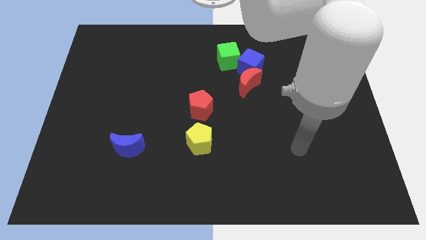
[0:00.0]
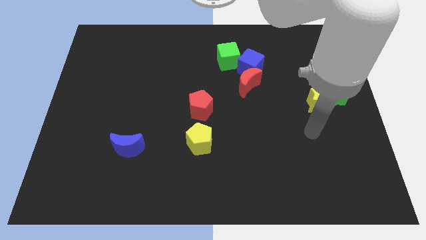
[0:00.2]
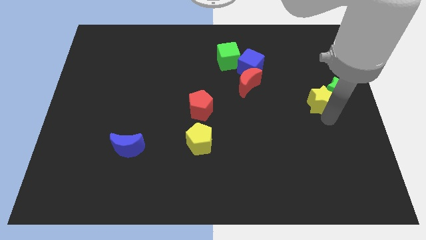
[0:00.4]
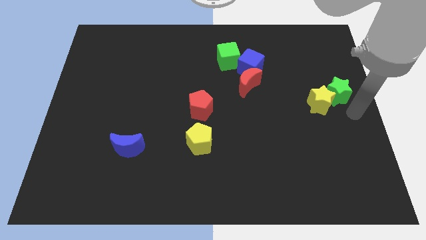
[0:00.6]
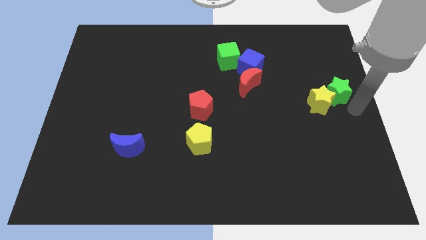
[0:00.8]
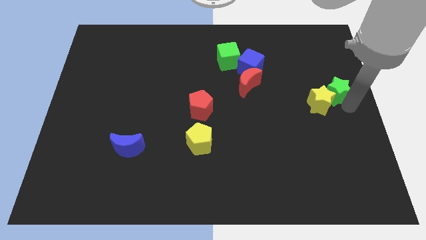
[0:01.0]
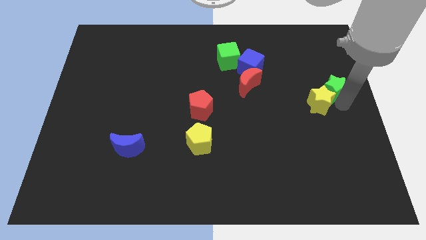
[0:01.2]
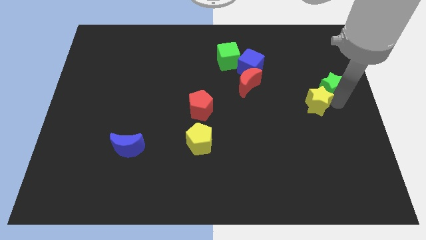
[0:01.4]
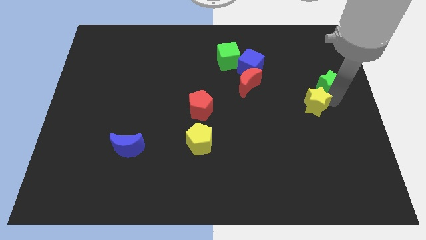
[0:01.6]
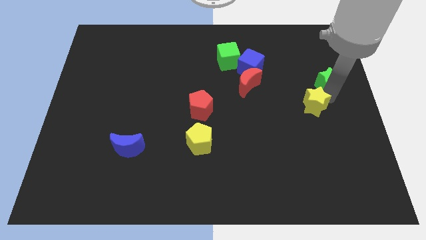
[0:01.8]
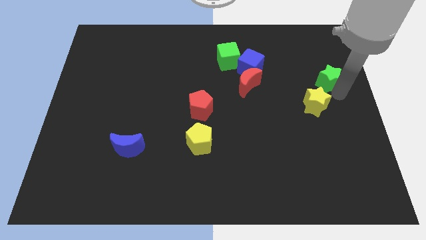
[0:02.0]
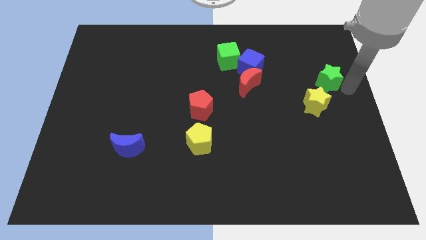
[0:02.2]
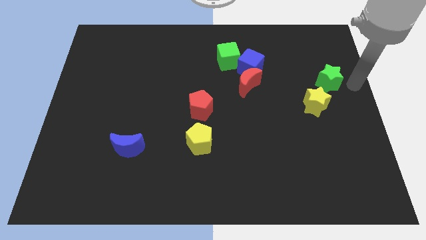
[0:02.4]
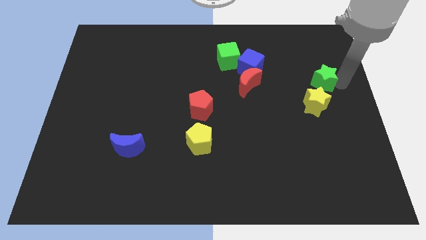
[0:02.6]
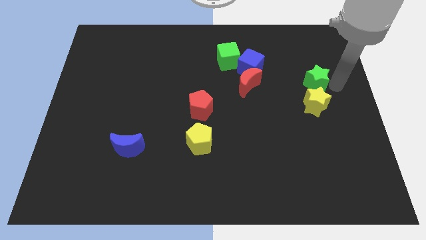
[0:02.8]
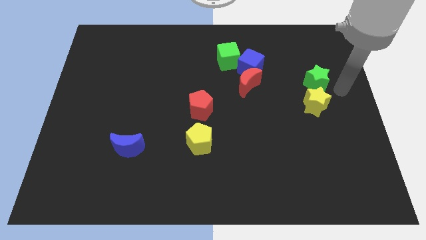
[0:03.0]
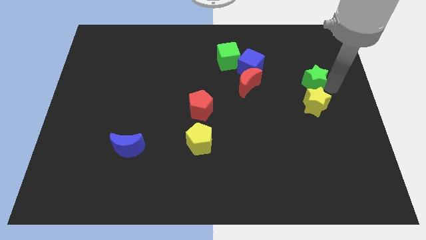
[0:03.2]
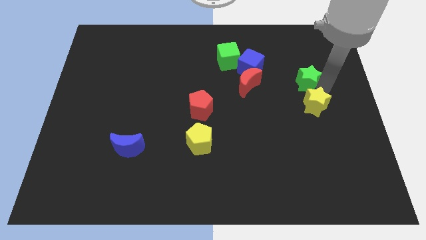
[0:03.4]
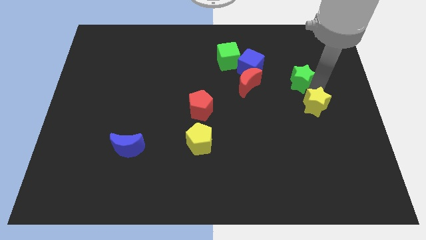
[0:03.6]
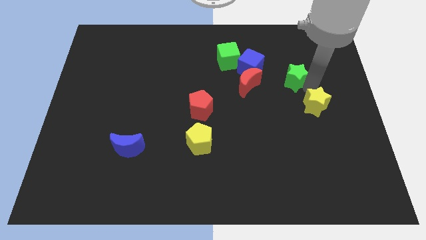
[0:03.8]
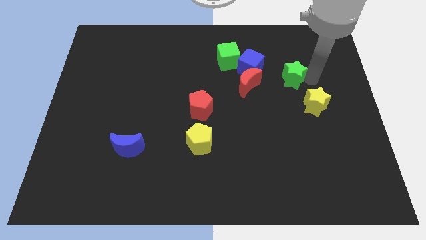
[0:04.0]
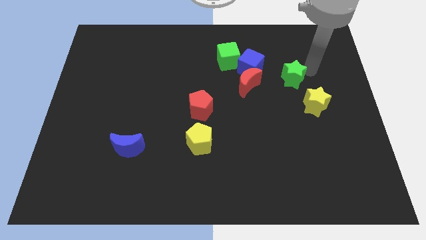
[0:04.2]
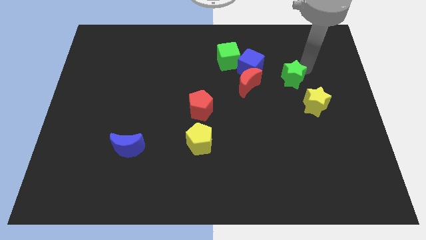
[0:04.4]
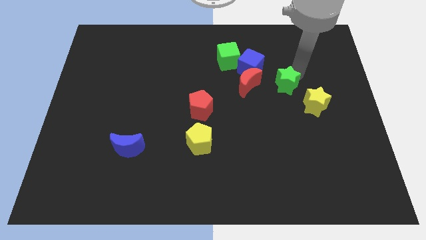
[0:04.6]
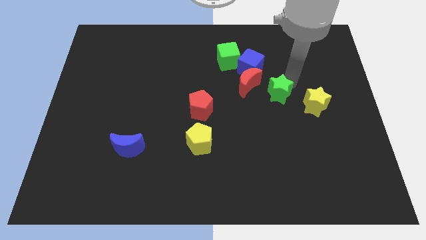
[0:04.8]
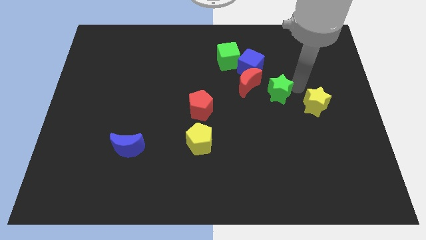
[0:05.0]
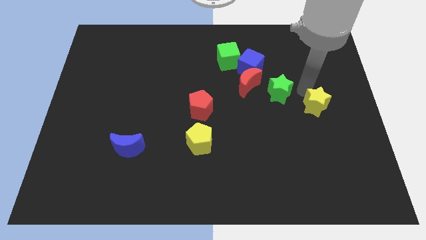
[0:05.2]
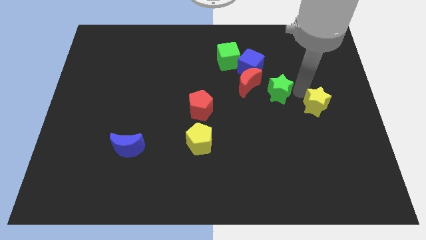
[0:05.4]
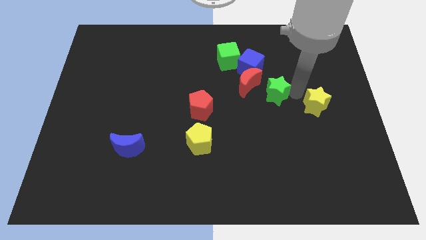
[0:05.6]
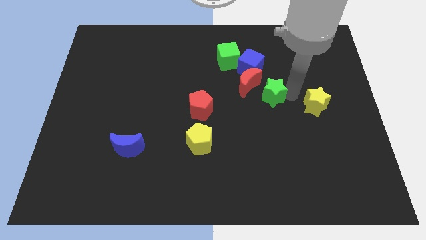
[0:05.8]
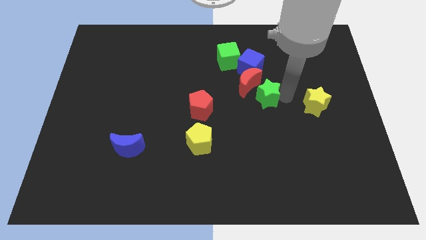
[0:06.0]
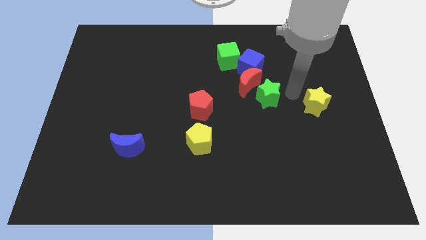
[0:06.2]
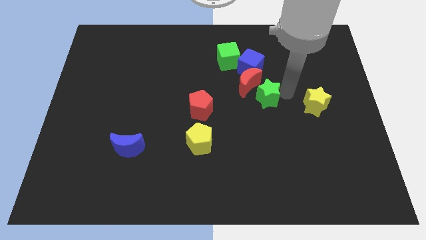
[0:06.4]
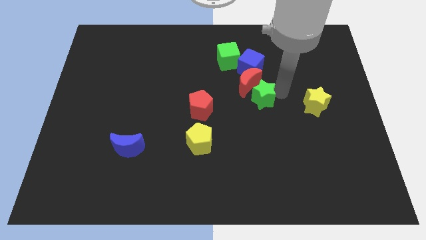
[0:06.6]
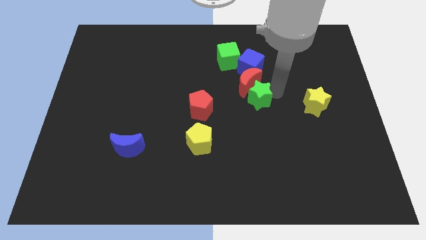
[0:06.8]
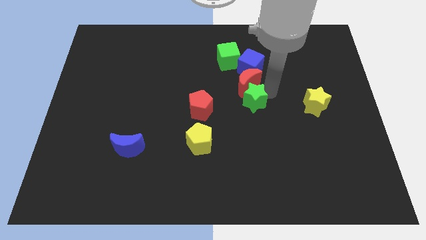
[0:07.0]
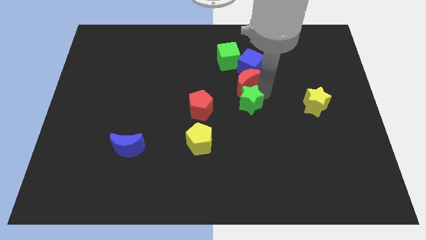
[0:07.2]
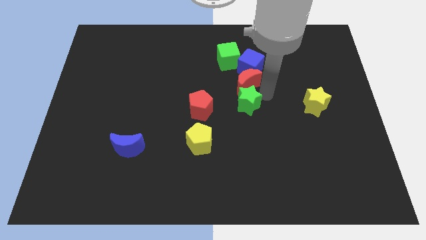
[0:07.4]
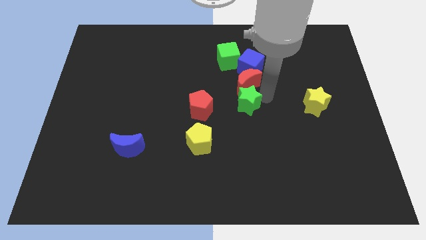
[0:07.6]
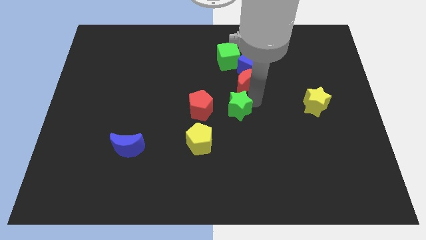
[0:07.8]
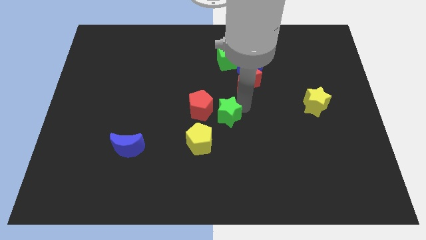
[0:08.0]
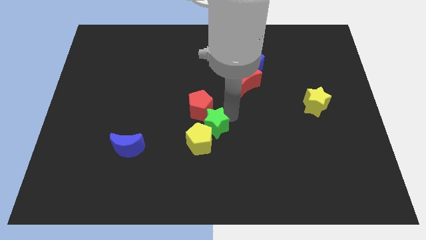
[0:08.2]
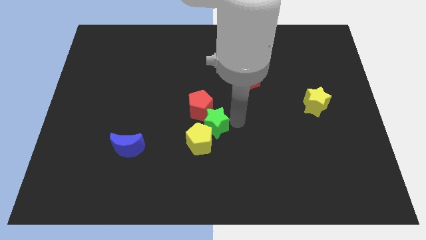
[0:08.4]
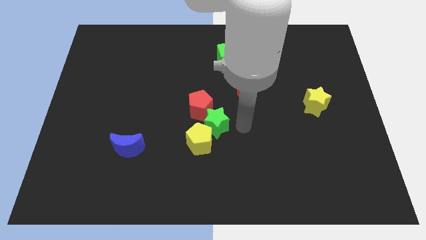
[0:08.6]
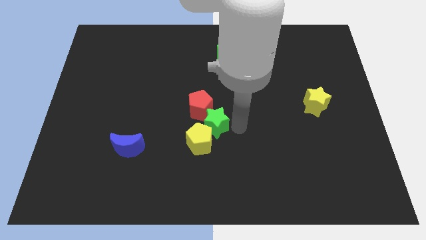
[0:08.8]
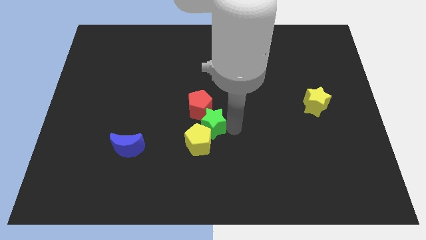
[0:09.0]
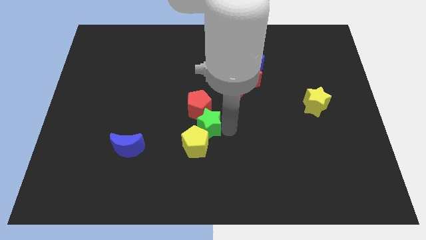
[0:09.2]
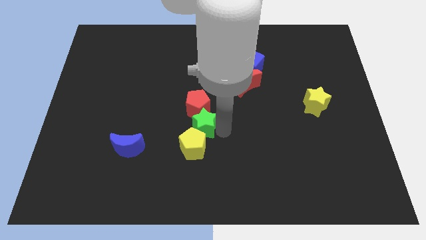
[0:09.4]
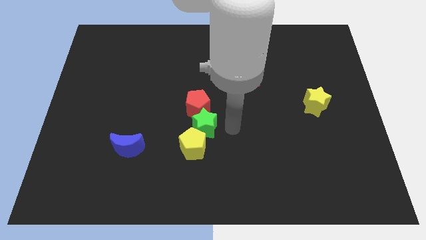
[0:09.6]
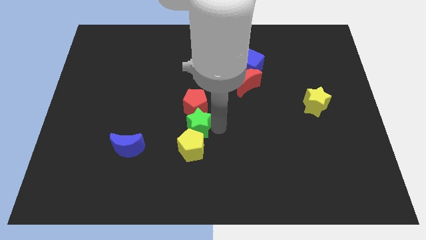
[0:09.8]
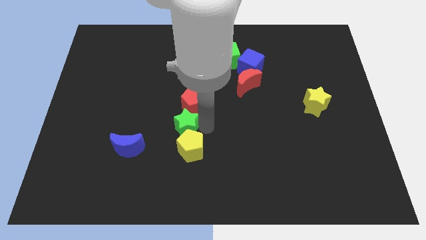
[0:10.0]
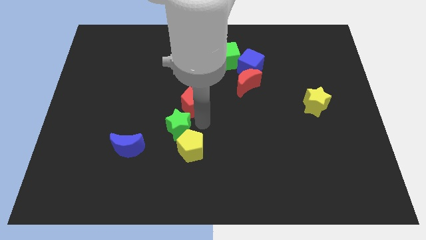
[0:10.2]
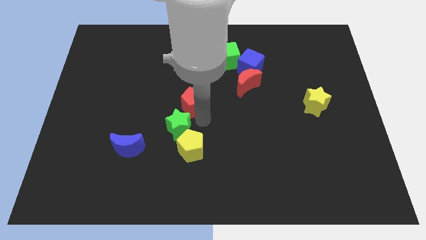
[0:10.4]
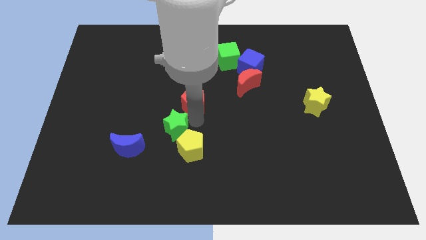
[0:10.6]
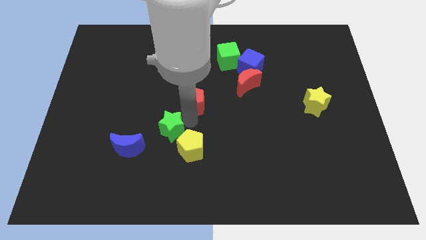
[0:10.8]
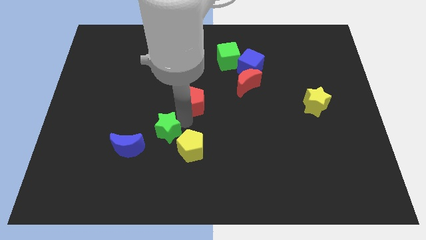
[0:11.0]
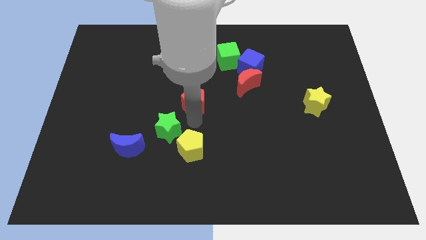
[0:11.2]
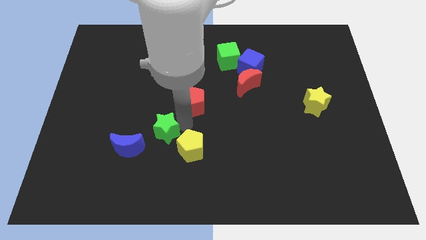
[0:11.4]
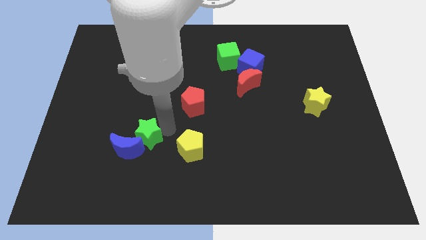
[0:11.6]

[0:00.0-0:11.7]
move the green star next to the blue moon

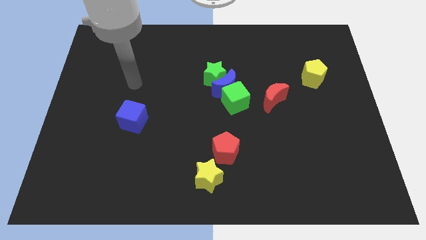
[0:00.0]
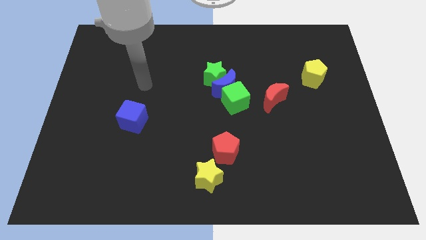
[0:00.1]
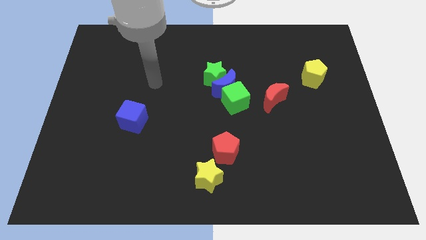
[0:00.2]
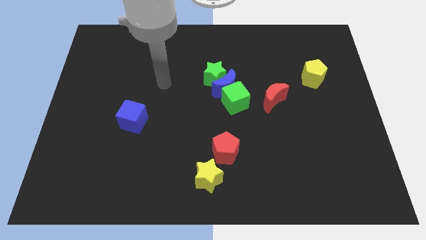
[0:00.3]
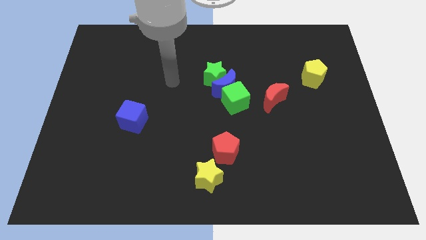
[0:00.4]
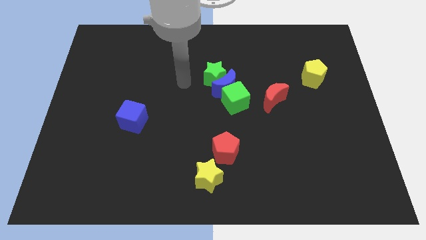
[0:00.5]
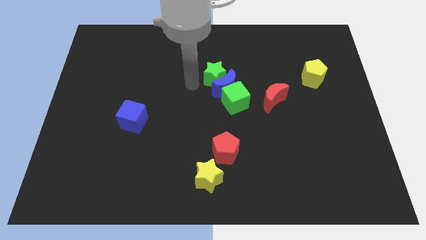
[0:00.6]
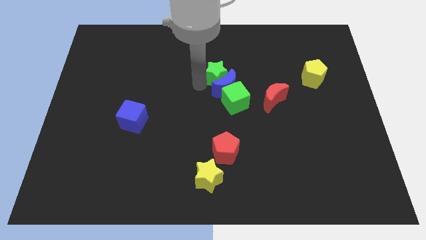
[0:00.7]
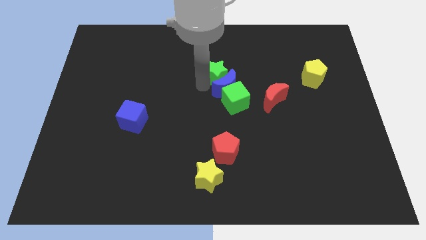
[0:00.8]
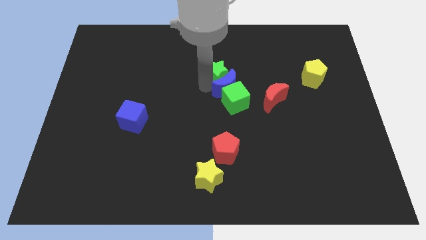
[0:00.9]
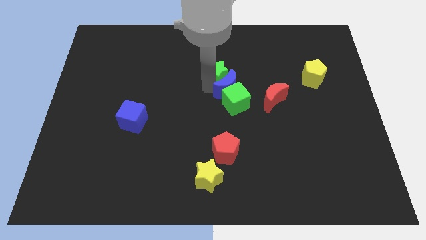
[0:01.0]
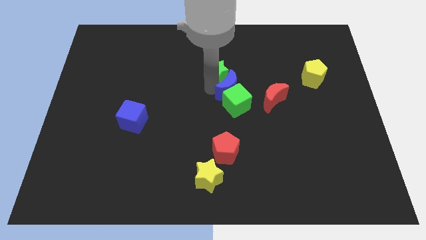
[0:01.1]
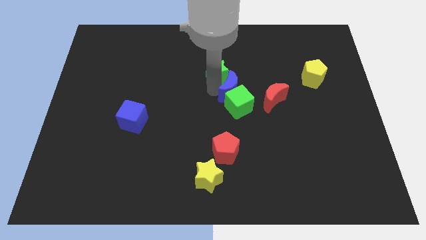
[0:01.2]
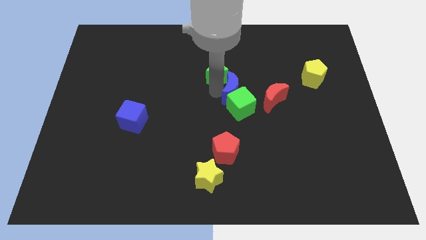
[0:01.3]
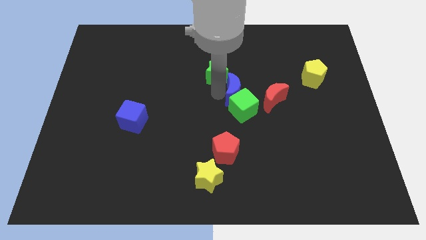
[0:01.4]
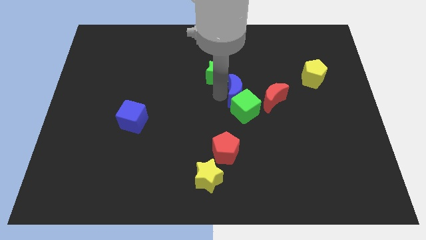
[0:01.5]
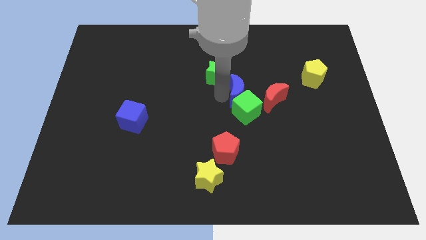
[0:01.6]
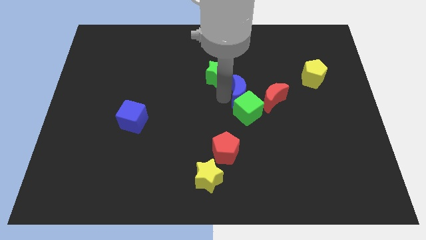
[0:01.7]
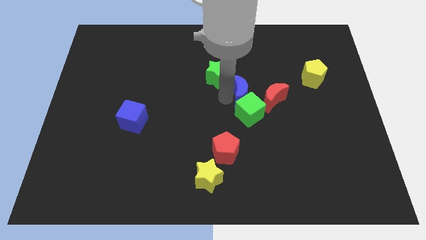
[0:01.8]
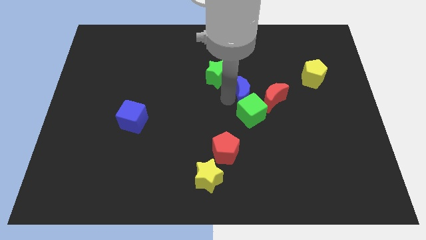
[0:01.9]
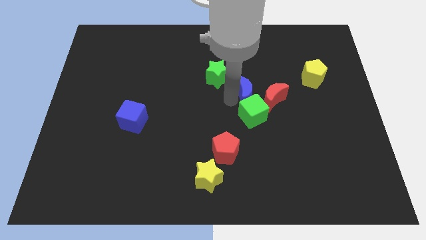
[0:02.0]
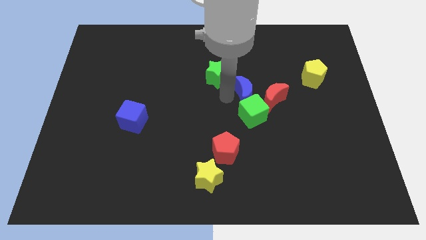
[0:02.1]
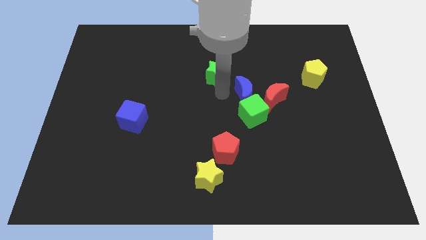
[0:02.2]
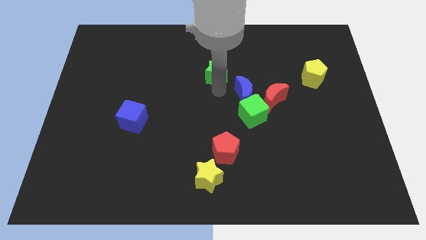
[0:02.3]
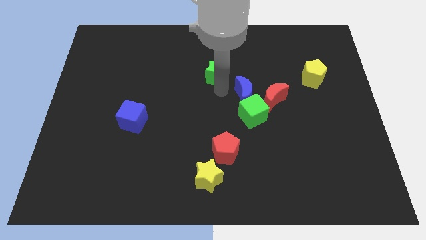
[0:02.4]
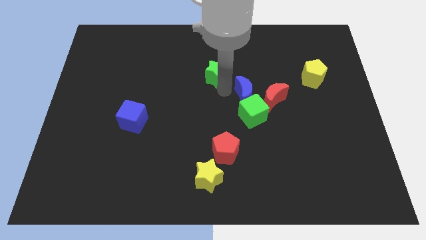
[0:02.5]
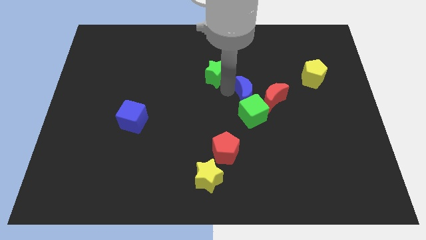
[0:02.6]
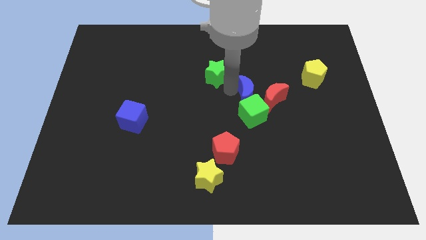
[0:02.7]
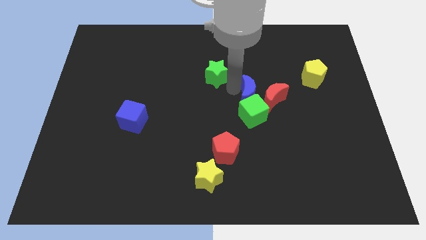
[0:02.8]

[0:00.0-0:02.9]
move the blue moon next to the red moon
